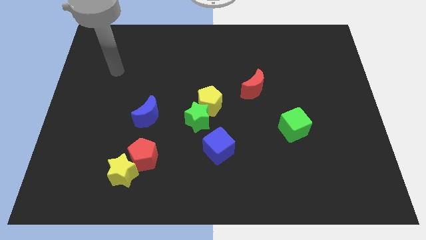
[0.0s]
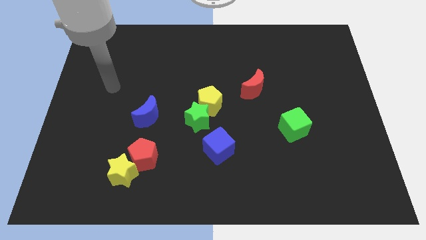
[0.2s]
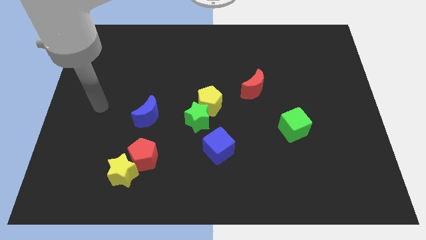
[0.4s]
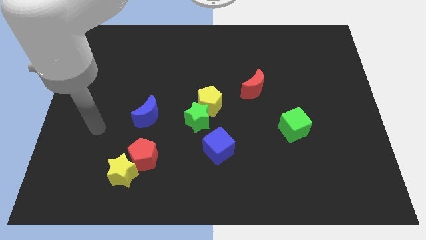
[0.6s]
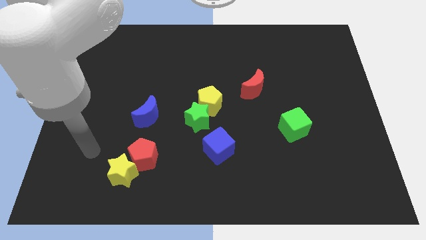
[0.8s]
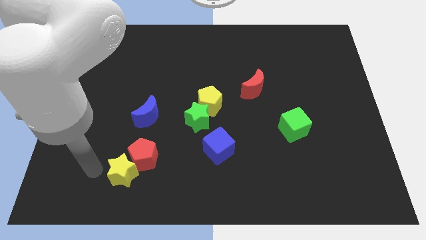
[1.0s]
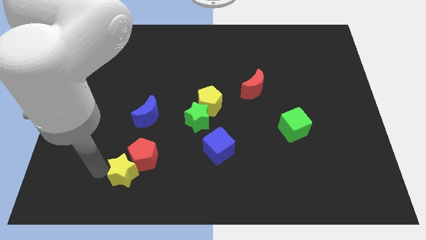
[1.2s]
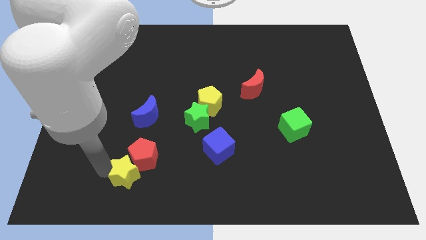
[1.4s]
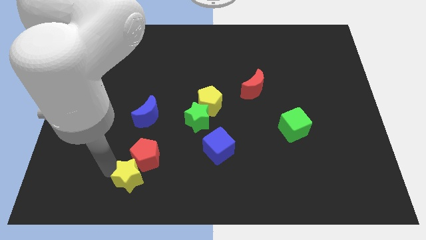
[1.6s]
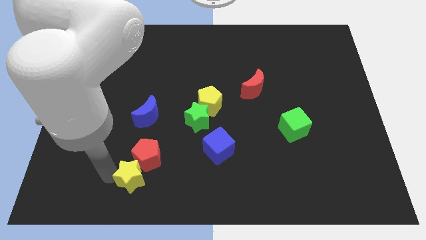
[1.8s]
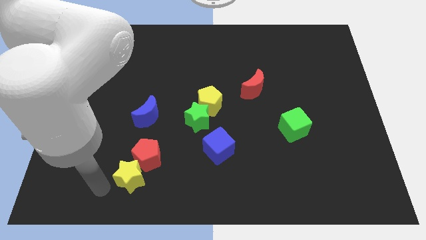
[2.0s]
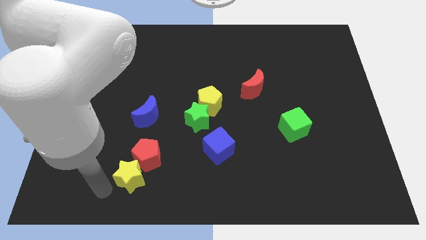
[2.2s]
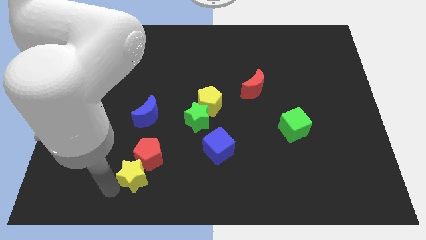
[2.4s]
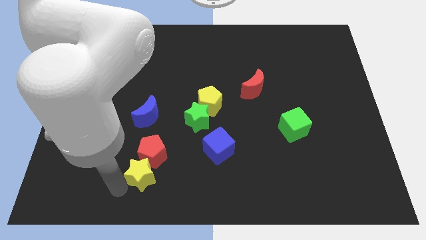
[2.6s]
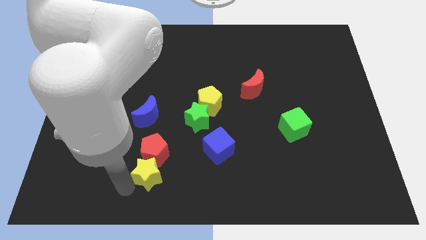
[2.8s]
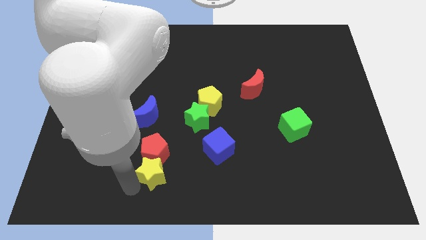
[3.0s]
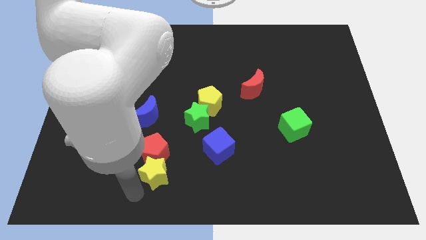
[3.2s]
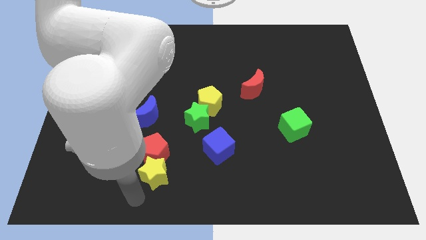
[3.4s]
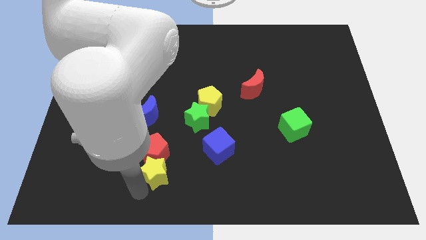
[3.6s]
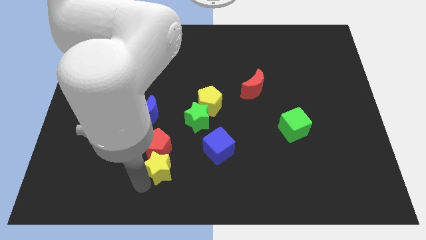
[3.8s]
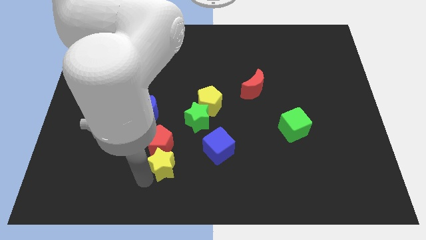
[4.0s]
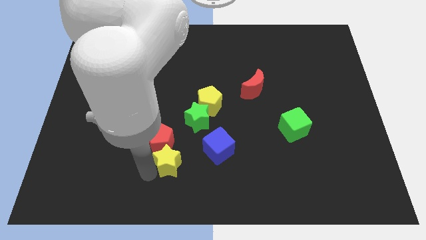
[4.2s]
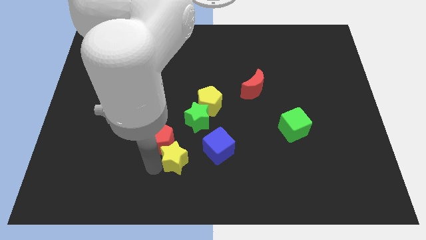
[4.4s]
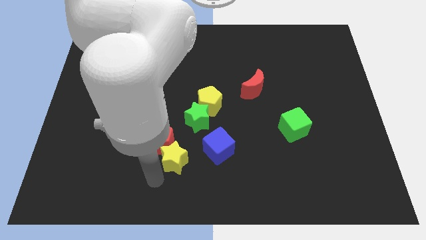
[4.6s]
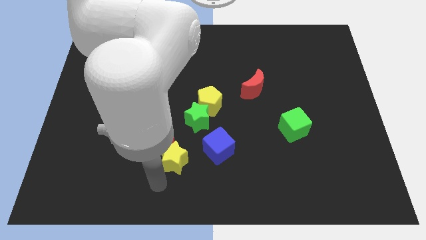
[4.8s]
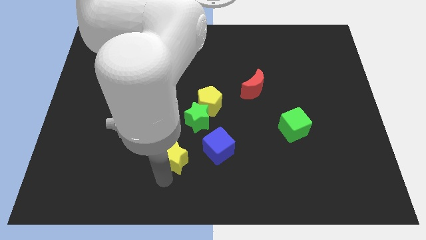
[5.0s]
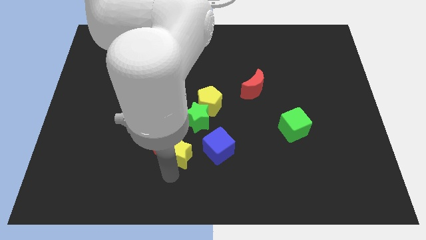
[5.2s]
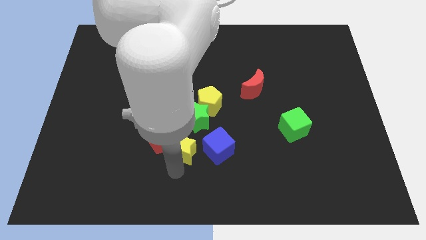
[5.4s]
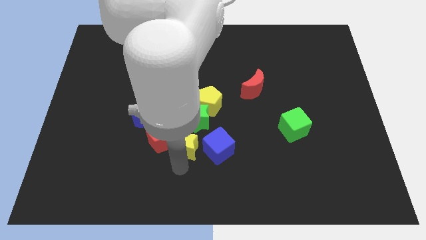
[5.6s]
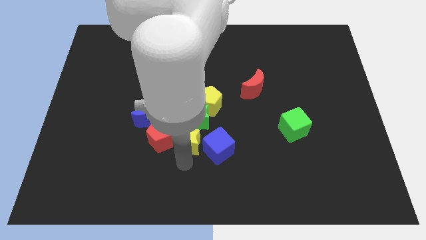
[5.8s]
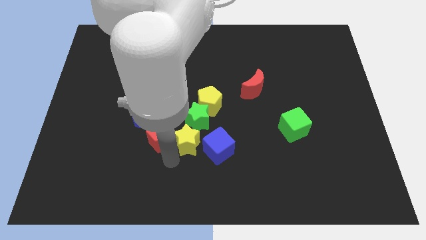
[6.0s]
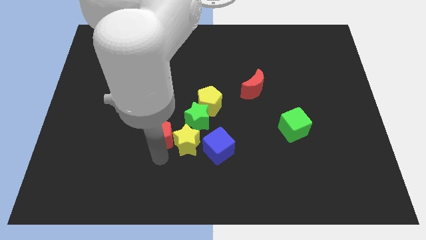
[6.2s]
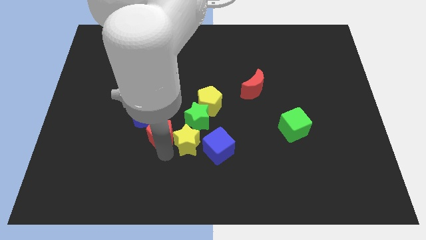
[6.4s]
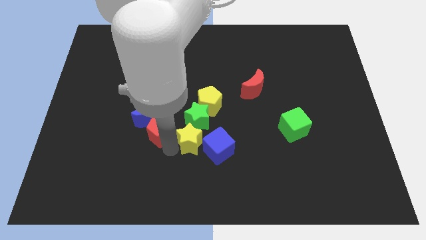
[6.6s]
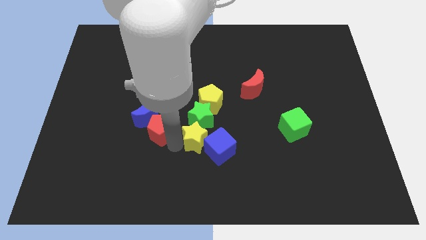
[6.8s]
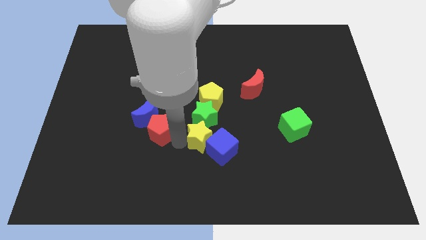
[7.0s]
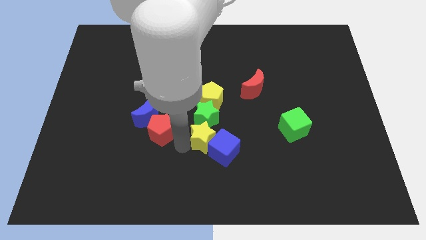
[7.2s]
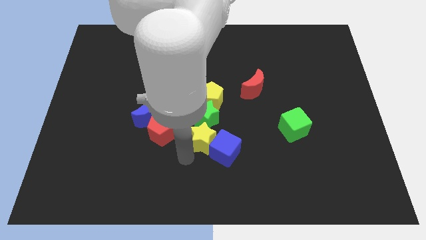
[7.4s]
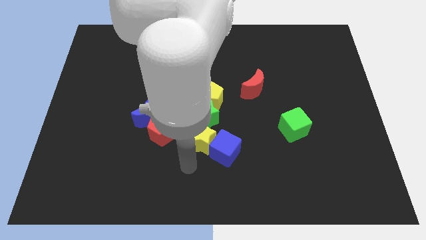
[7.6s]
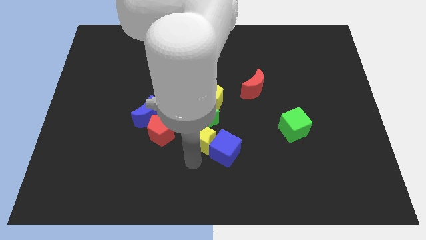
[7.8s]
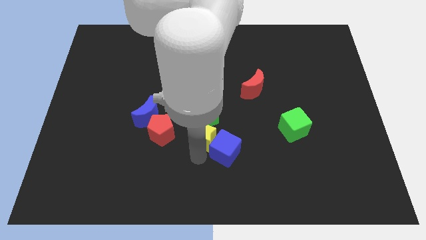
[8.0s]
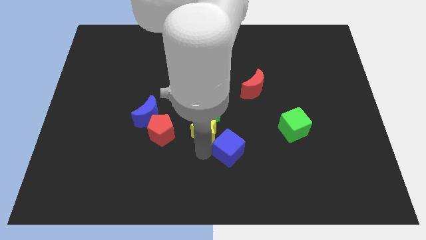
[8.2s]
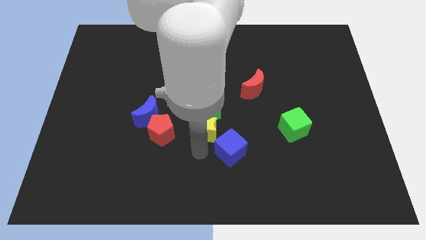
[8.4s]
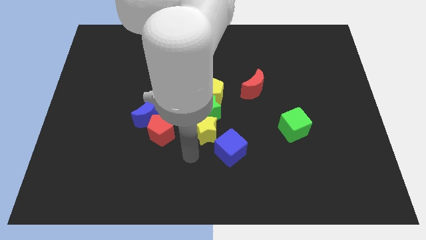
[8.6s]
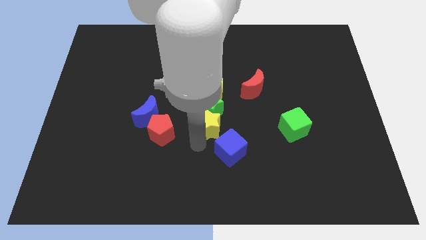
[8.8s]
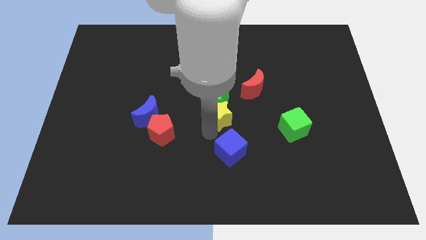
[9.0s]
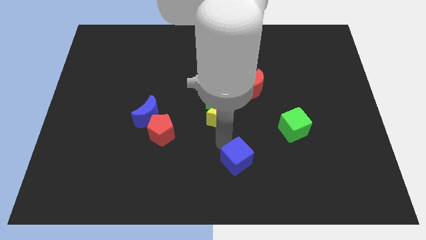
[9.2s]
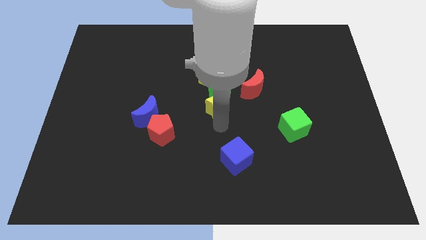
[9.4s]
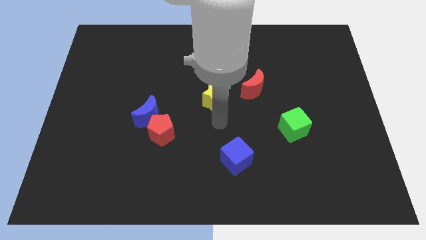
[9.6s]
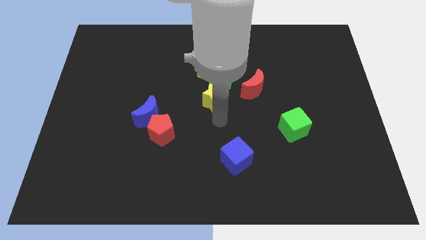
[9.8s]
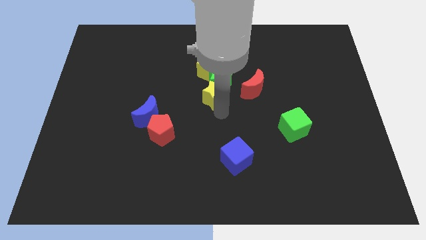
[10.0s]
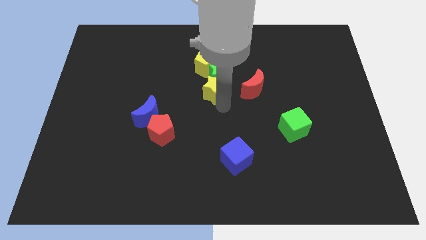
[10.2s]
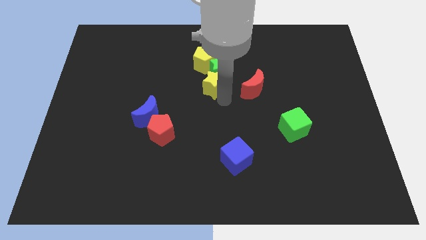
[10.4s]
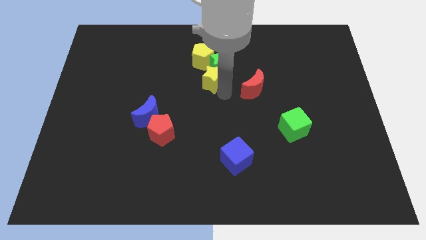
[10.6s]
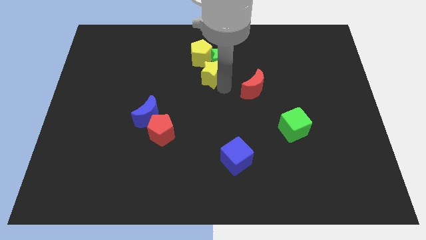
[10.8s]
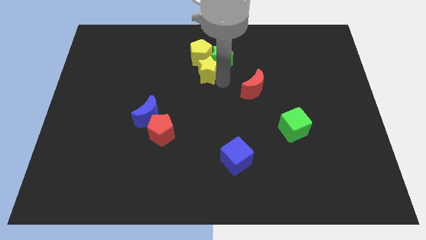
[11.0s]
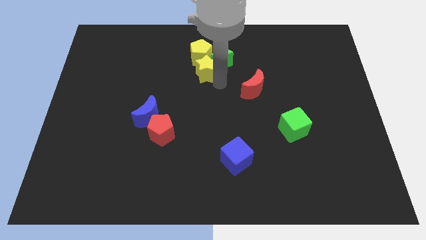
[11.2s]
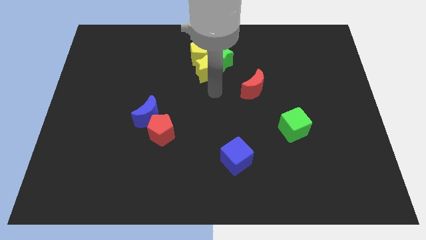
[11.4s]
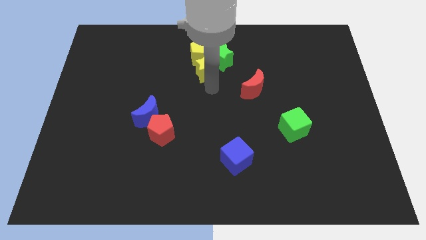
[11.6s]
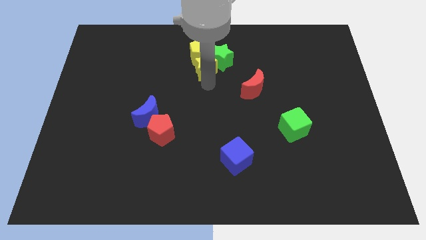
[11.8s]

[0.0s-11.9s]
push the yellow star towards the yellow pentagon
